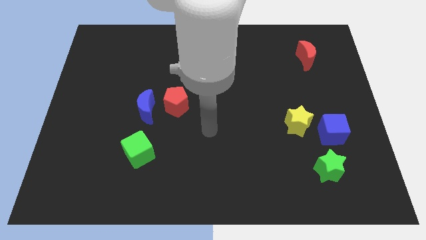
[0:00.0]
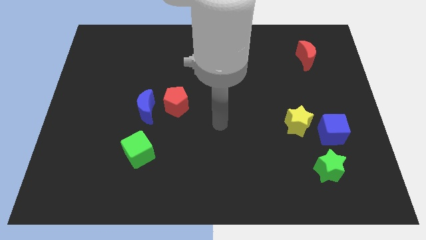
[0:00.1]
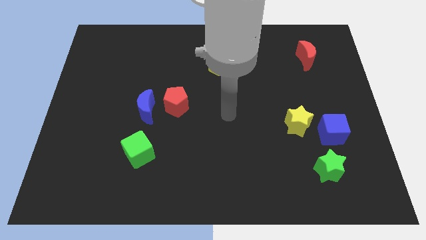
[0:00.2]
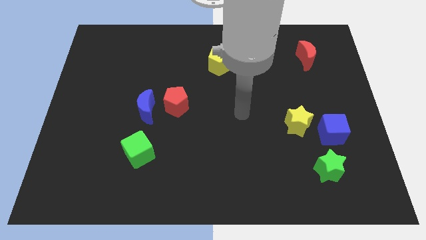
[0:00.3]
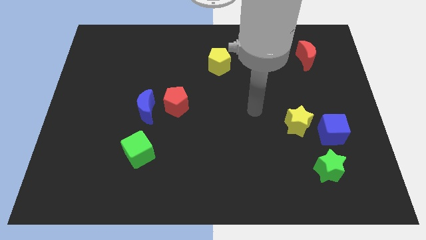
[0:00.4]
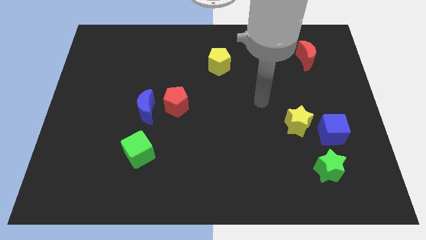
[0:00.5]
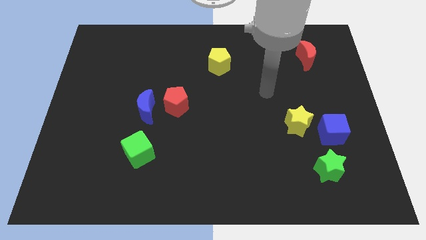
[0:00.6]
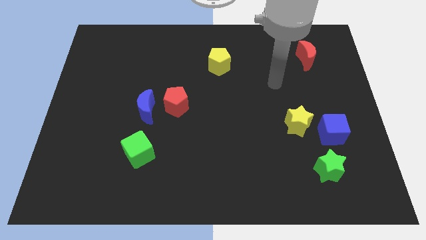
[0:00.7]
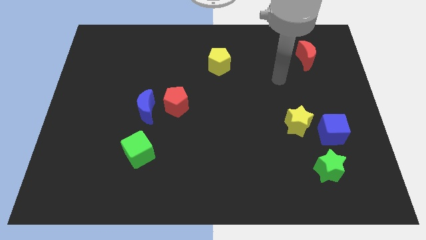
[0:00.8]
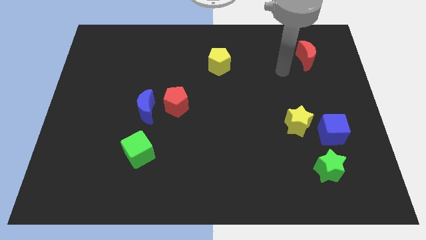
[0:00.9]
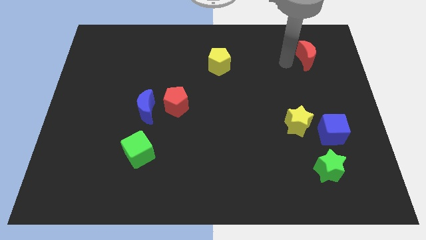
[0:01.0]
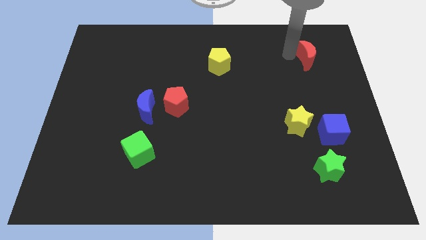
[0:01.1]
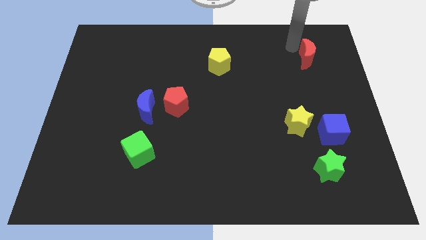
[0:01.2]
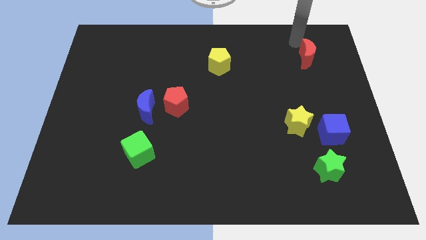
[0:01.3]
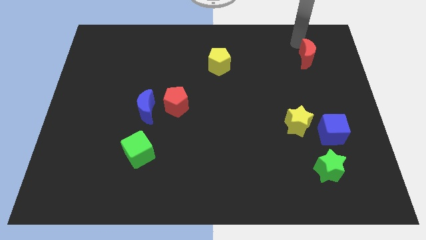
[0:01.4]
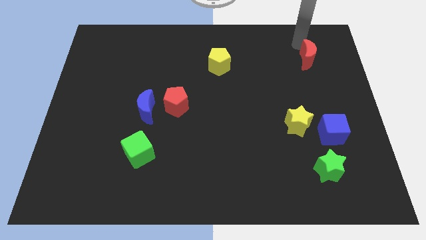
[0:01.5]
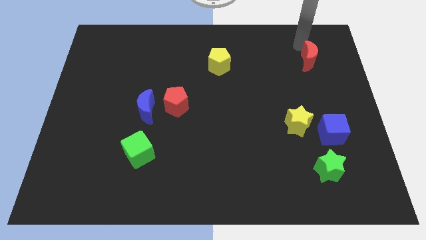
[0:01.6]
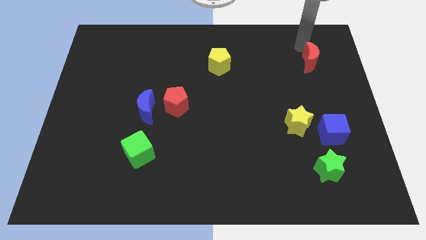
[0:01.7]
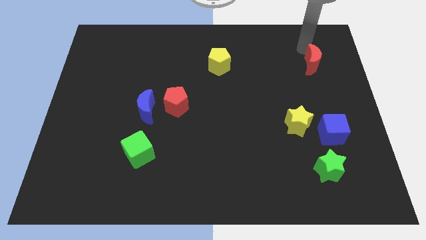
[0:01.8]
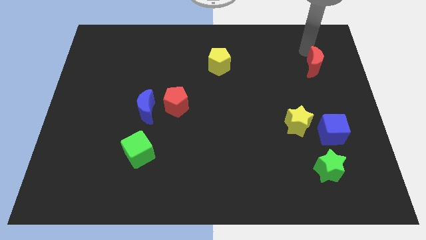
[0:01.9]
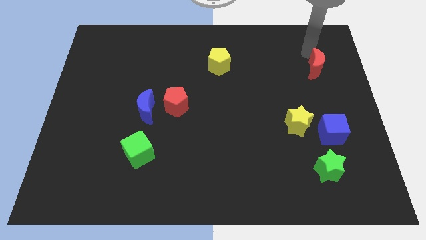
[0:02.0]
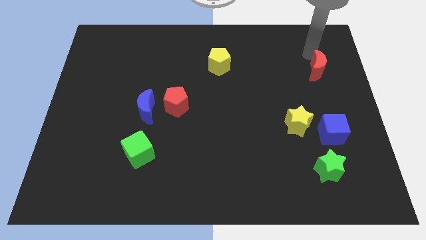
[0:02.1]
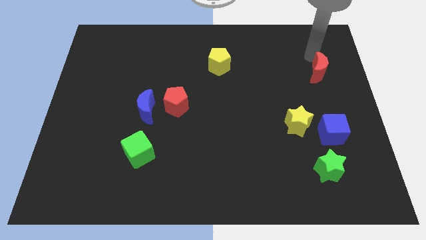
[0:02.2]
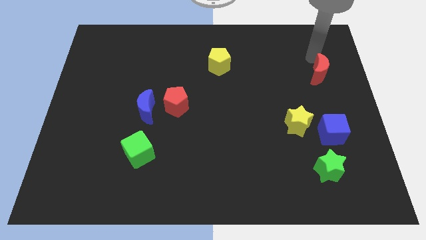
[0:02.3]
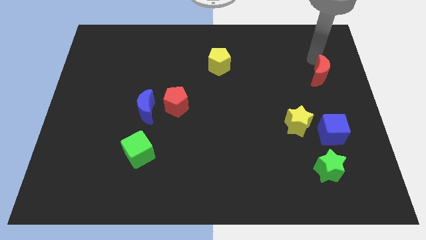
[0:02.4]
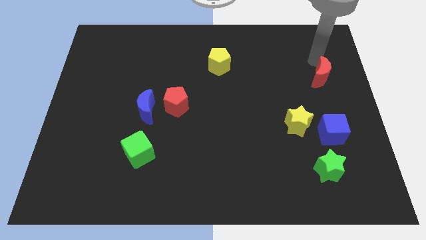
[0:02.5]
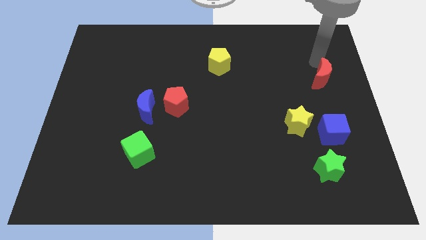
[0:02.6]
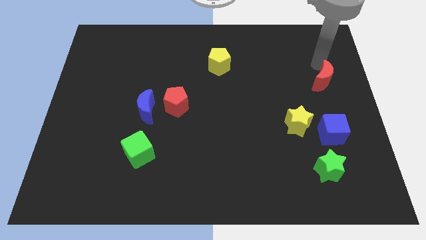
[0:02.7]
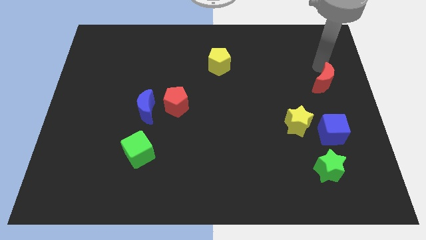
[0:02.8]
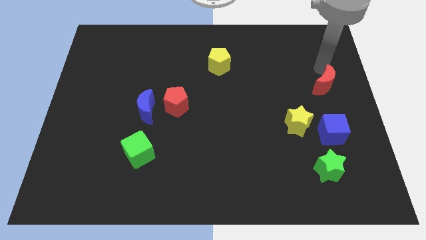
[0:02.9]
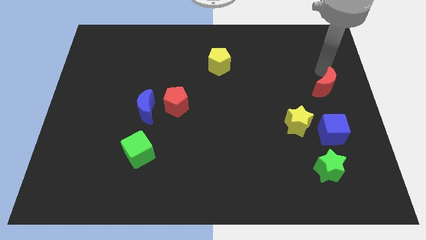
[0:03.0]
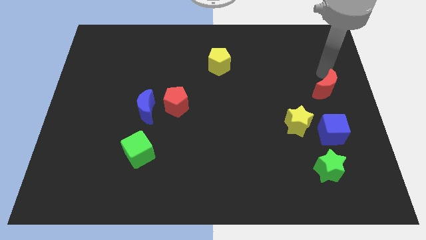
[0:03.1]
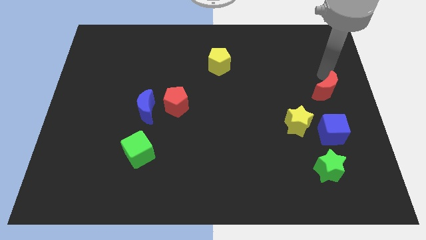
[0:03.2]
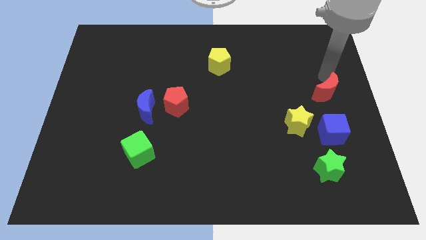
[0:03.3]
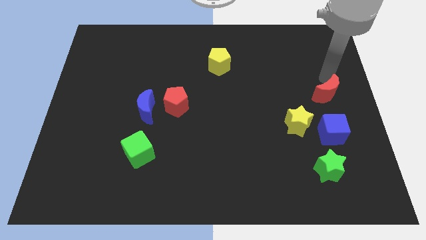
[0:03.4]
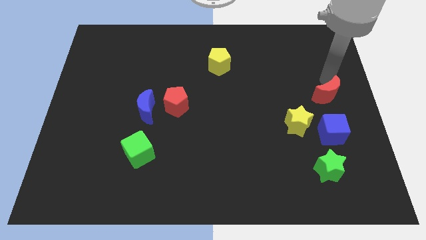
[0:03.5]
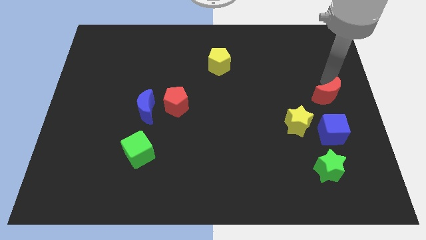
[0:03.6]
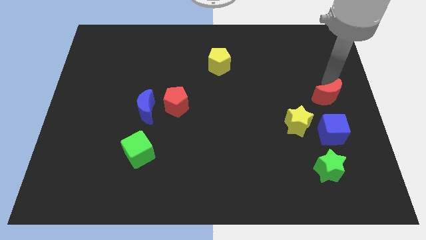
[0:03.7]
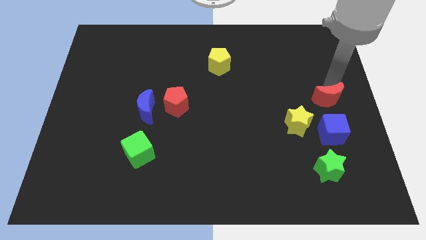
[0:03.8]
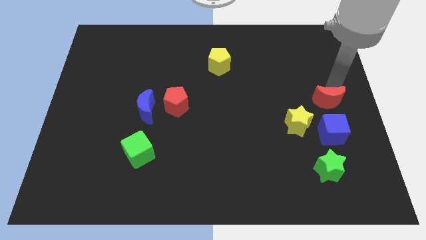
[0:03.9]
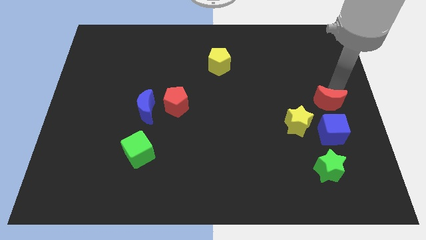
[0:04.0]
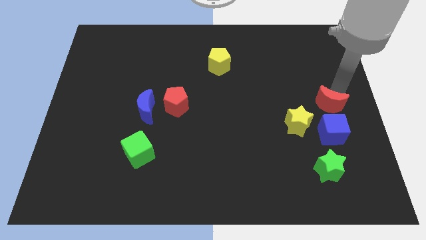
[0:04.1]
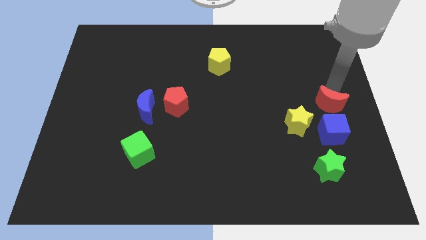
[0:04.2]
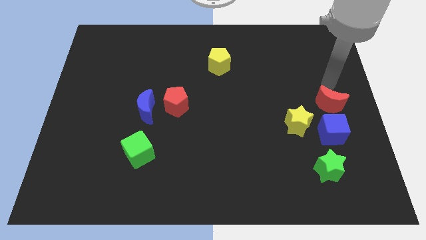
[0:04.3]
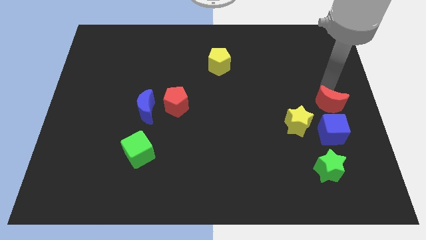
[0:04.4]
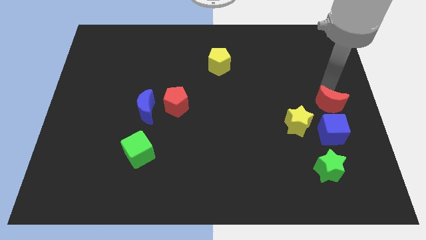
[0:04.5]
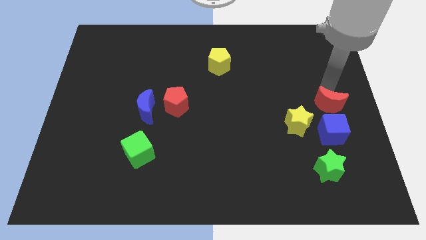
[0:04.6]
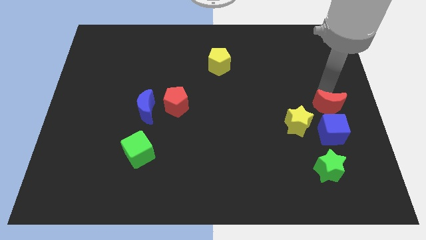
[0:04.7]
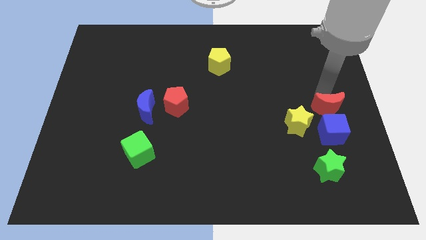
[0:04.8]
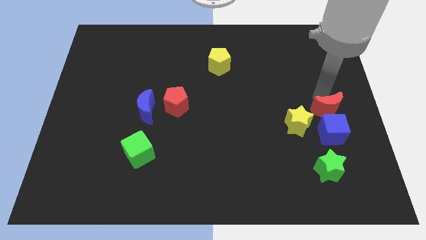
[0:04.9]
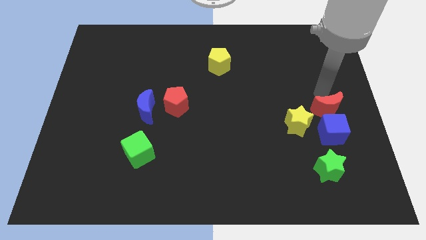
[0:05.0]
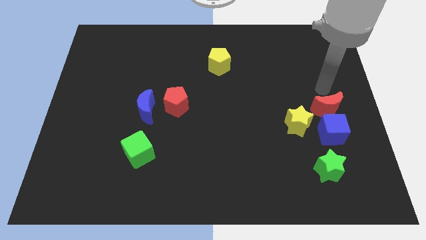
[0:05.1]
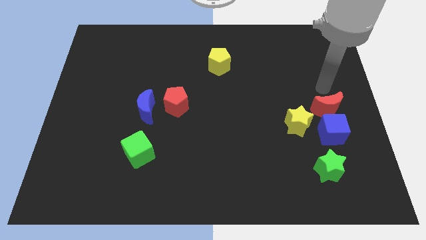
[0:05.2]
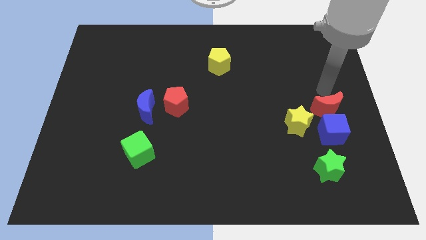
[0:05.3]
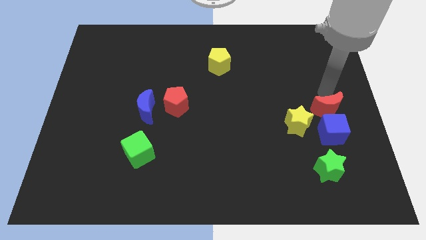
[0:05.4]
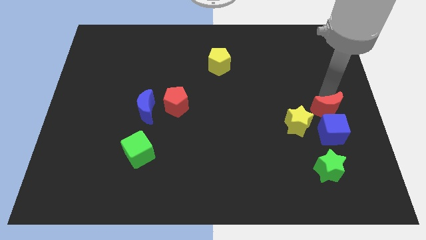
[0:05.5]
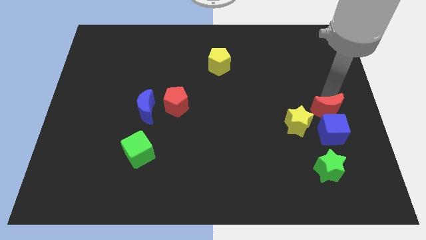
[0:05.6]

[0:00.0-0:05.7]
move the red moon to the blue cube

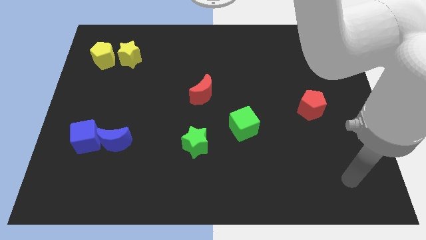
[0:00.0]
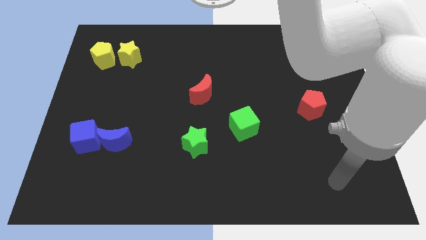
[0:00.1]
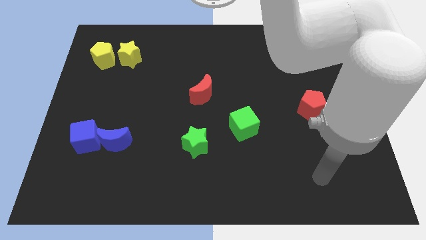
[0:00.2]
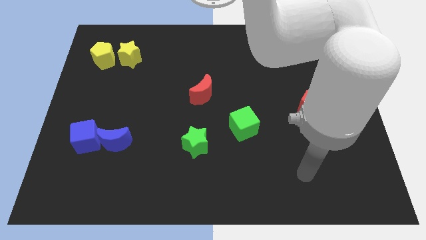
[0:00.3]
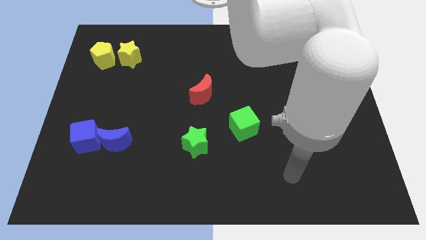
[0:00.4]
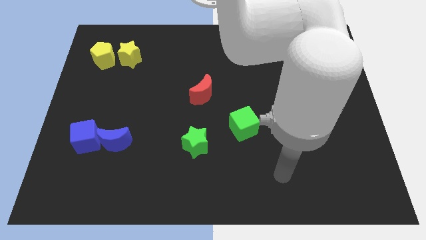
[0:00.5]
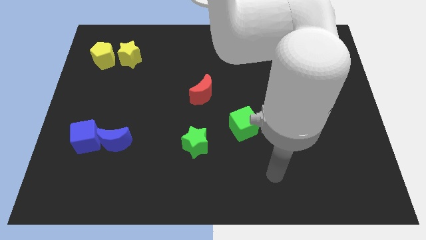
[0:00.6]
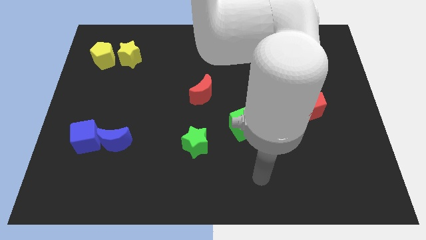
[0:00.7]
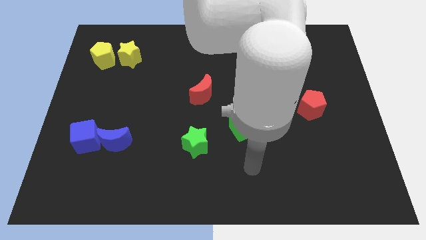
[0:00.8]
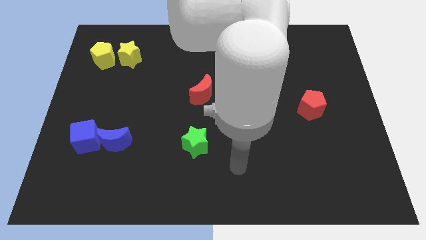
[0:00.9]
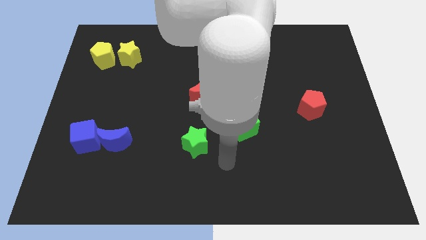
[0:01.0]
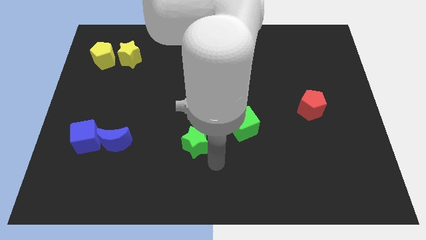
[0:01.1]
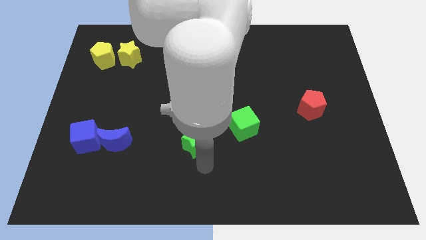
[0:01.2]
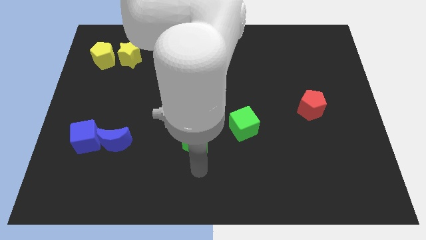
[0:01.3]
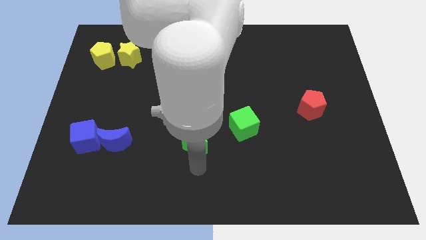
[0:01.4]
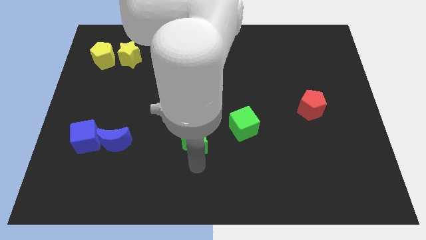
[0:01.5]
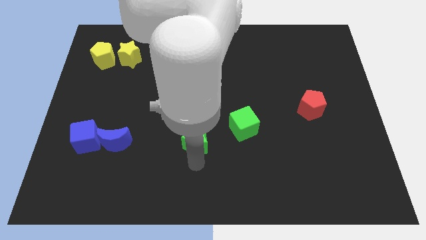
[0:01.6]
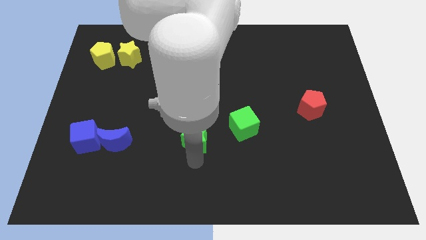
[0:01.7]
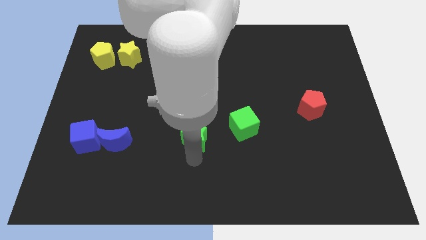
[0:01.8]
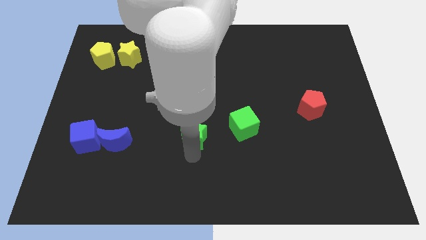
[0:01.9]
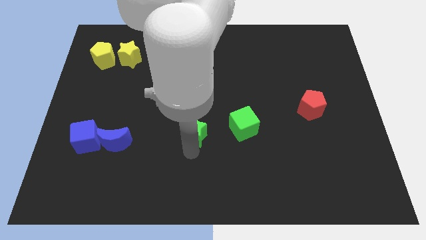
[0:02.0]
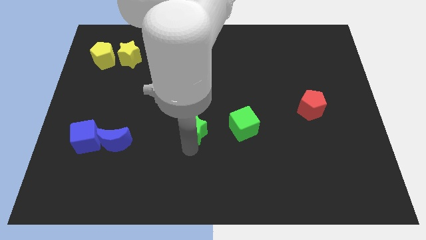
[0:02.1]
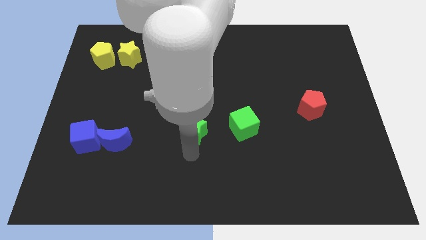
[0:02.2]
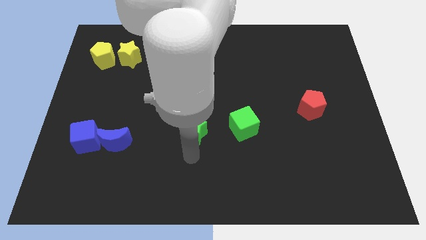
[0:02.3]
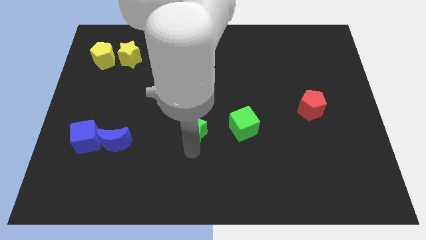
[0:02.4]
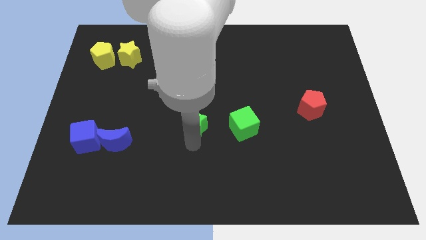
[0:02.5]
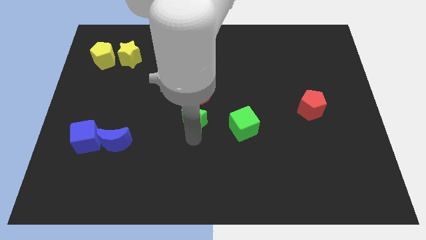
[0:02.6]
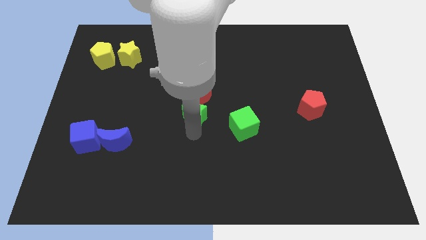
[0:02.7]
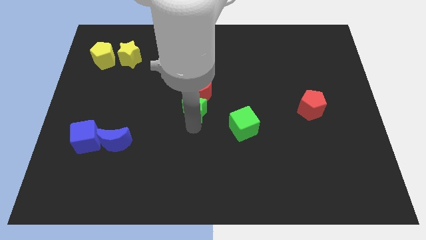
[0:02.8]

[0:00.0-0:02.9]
put the green star close to the red moon
